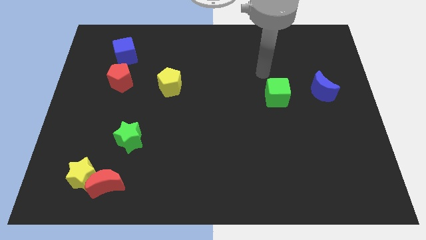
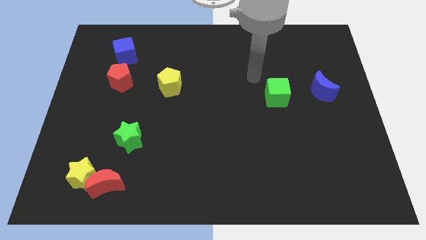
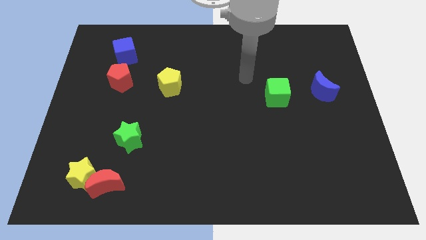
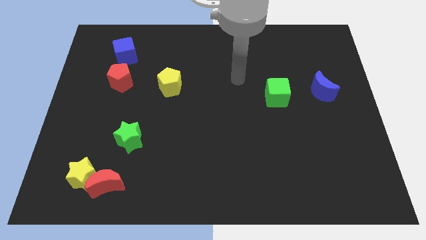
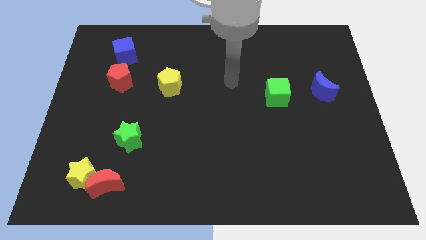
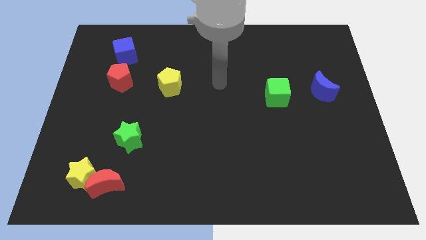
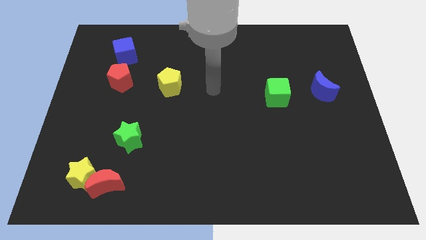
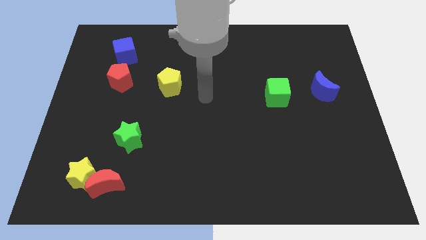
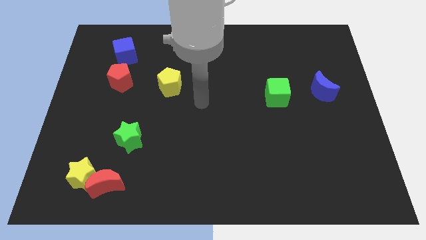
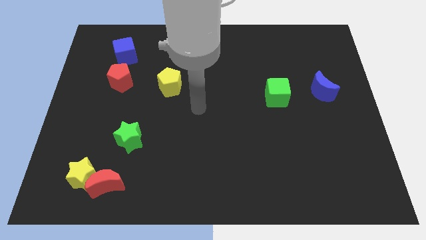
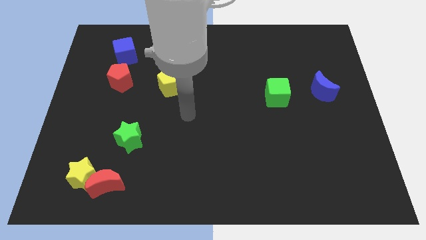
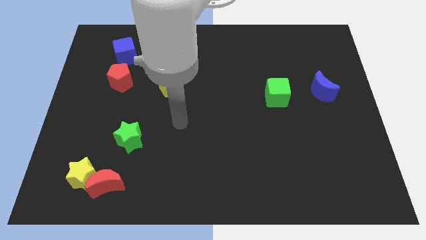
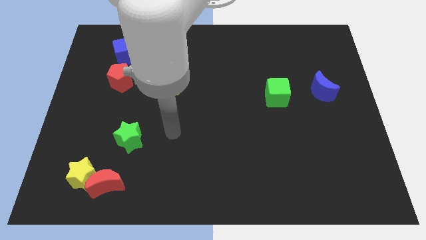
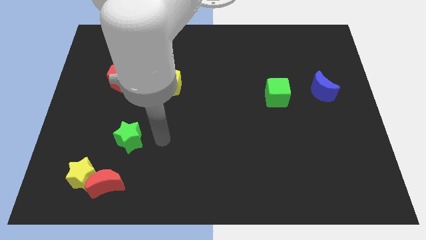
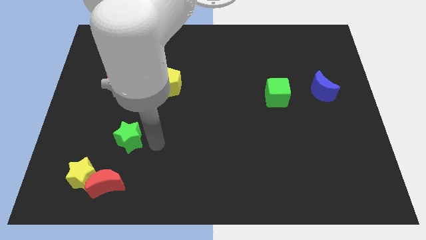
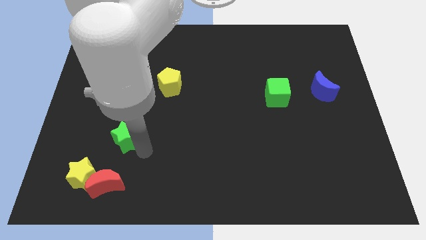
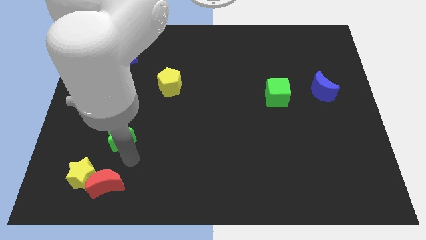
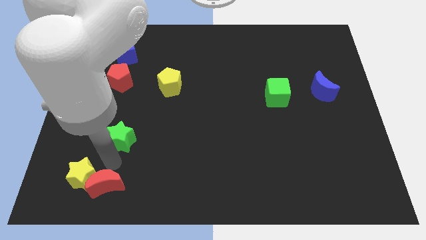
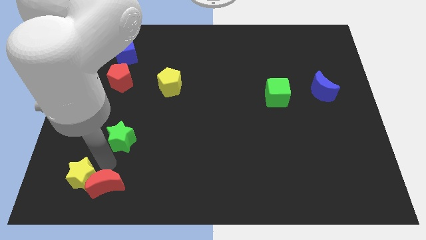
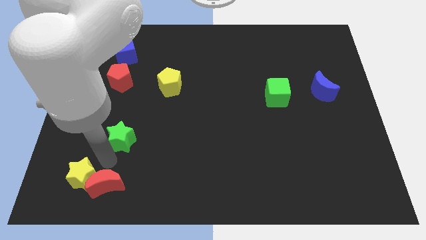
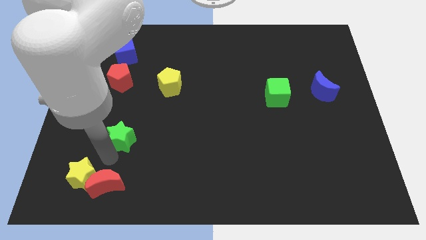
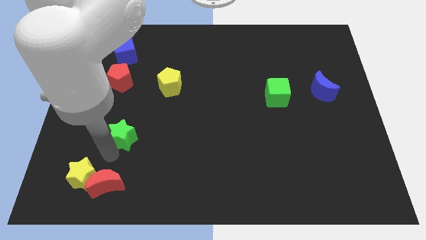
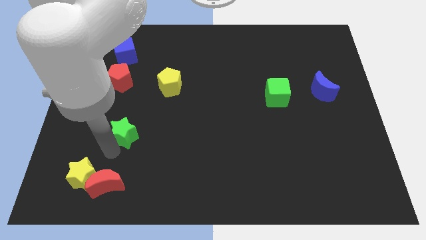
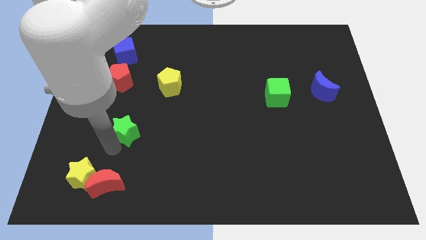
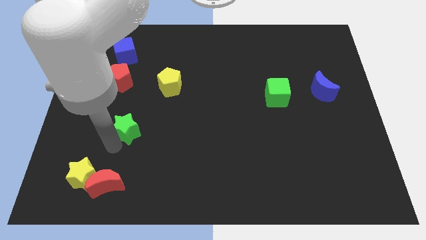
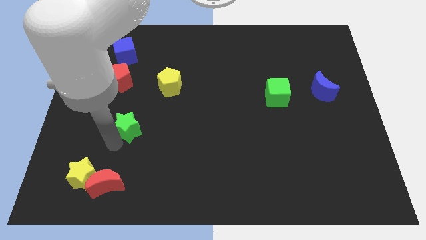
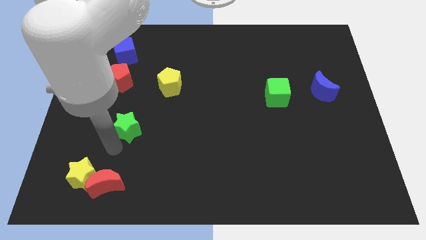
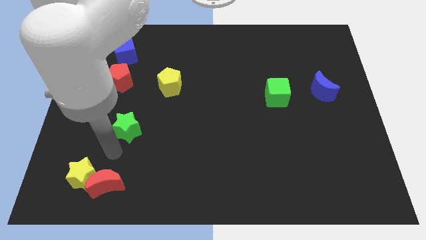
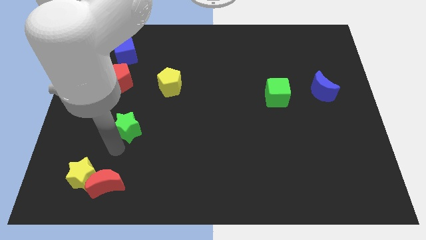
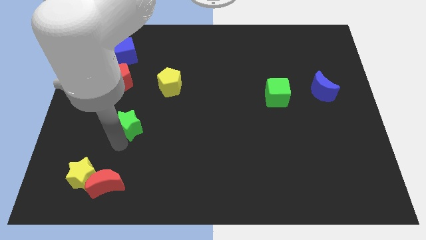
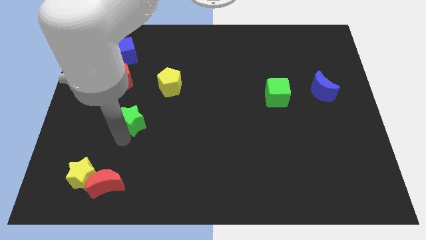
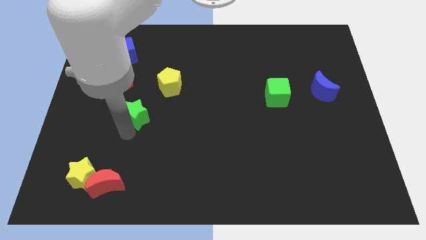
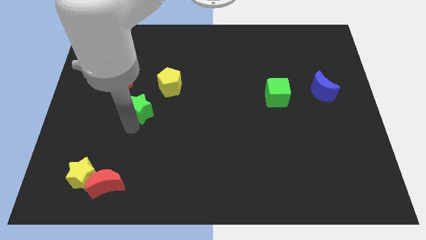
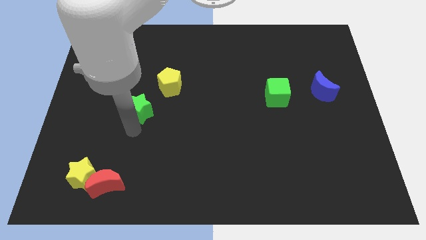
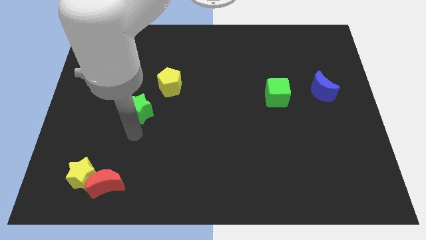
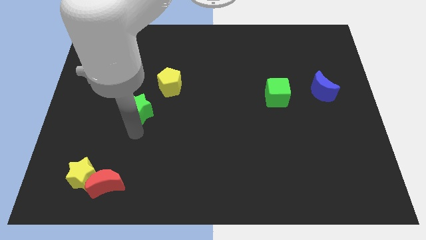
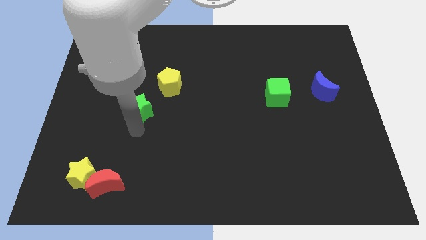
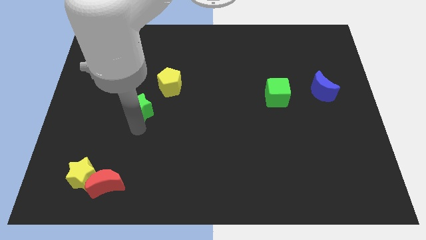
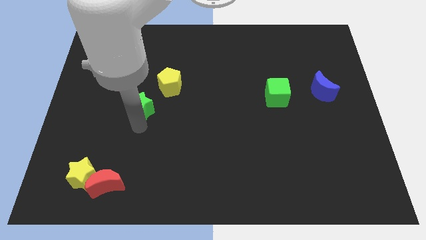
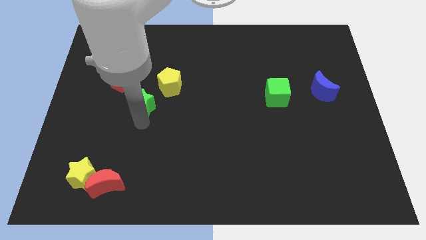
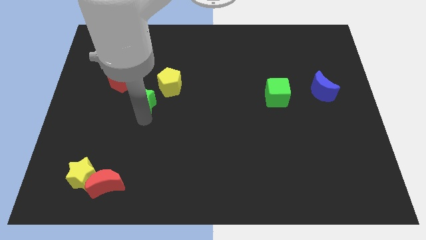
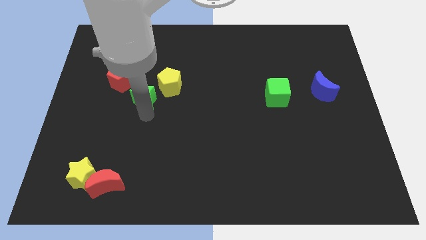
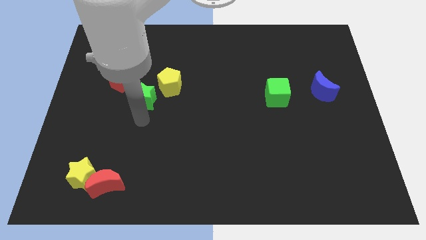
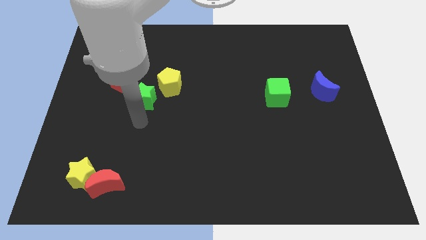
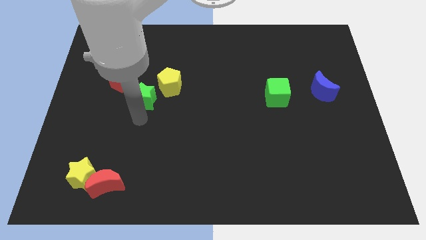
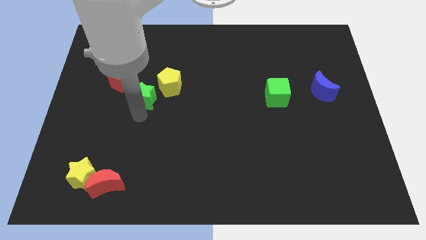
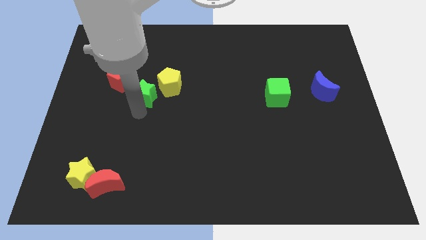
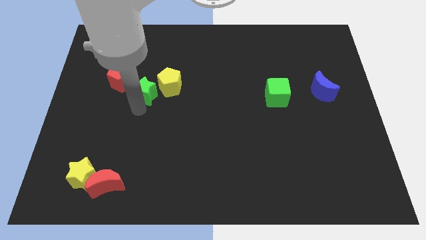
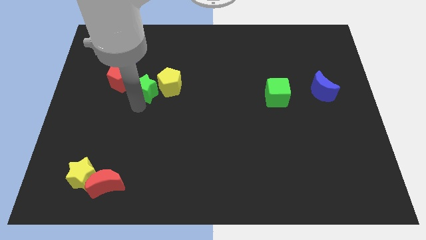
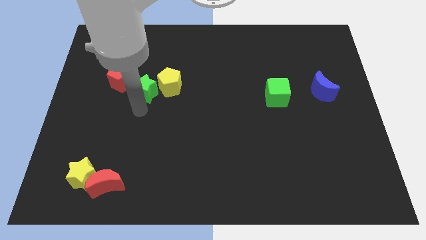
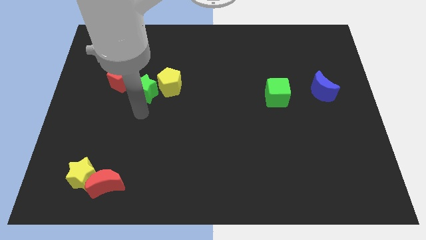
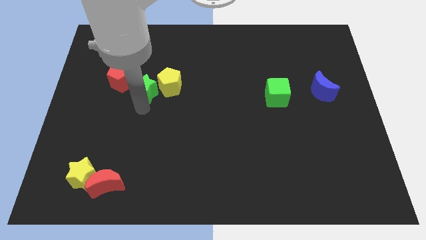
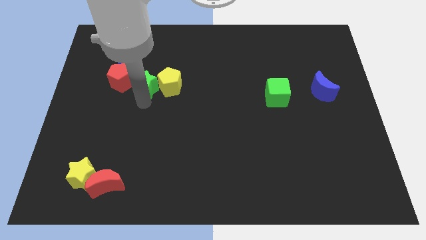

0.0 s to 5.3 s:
push the green star to the top left of the yellow pentagon

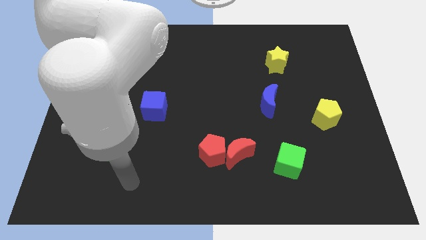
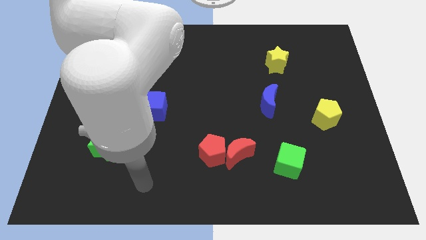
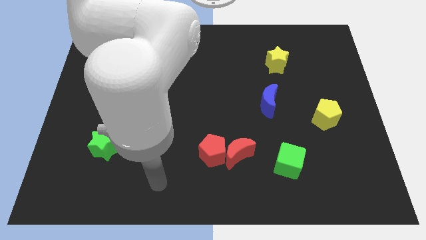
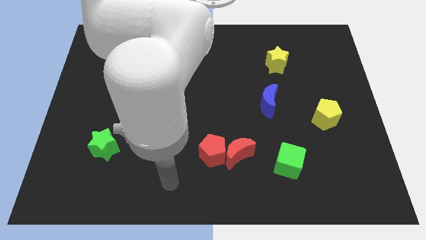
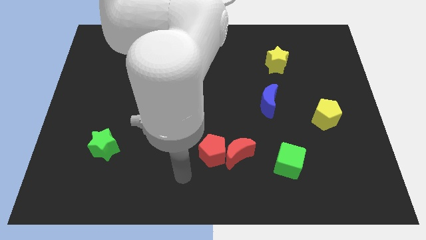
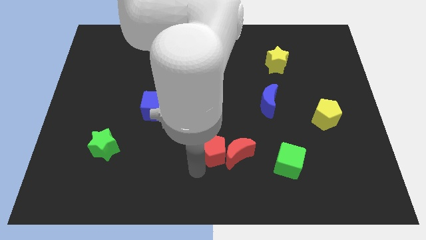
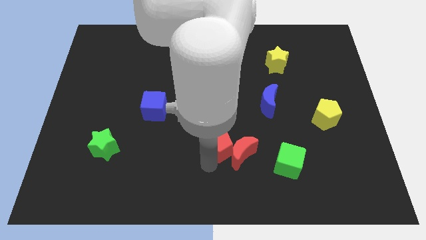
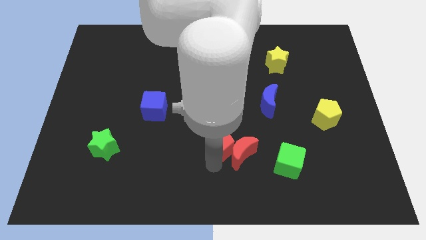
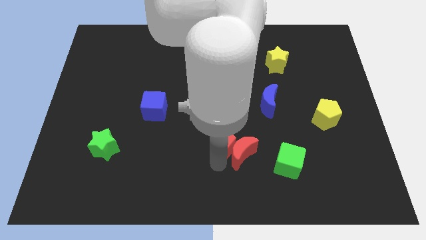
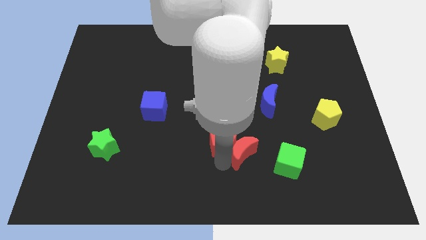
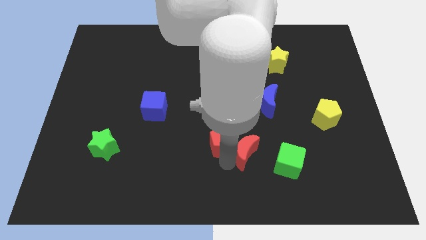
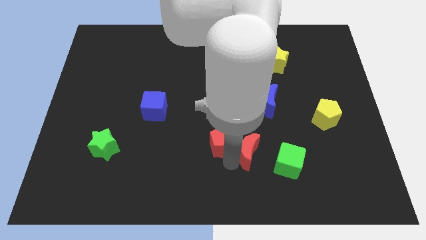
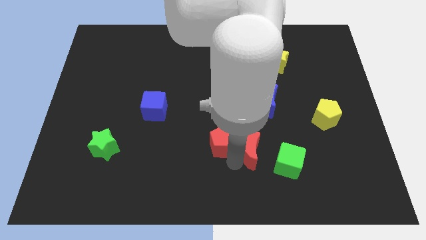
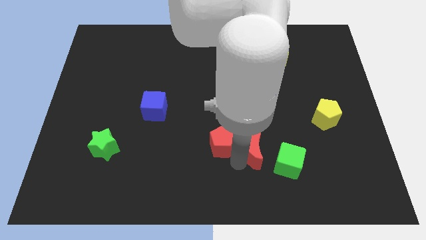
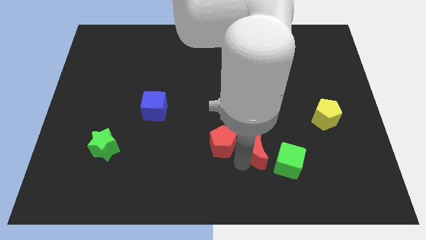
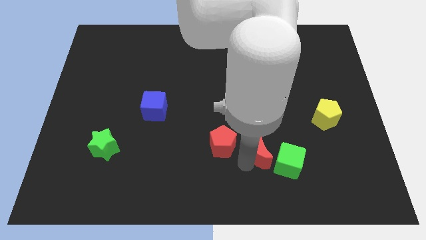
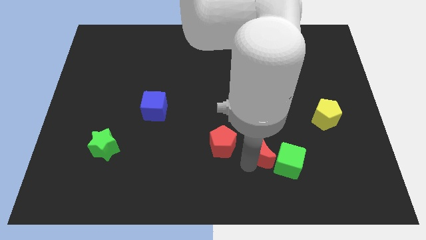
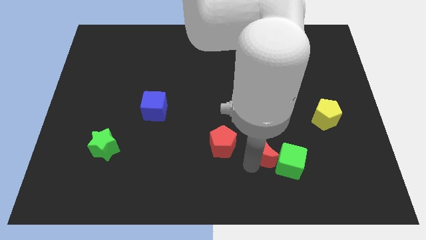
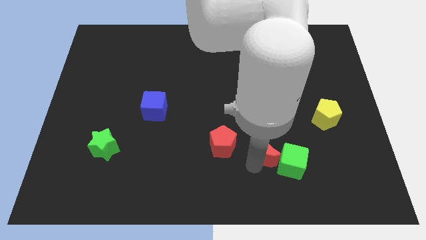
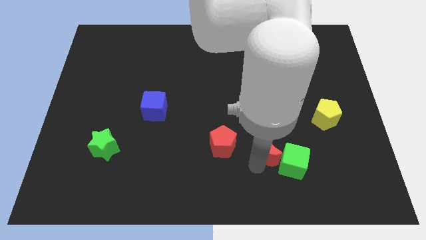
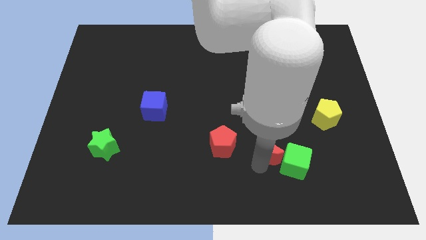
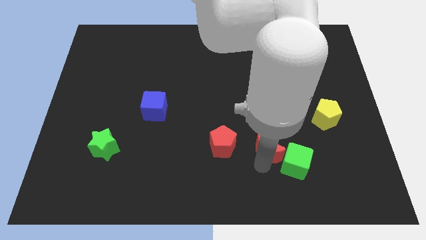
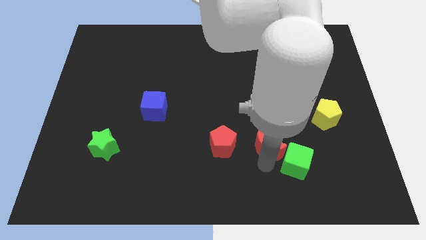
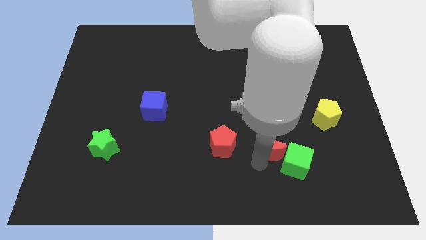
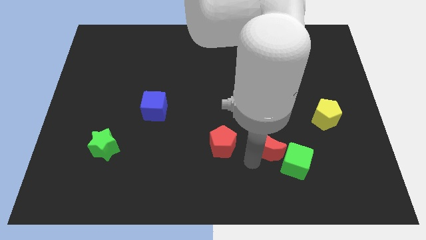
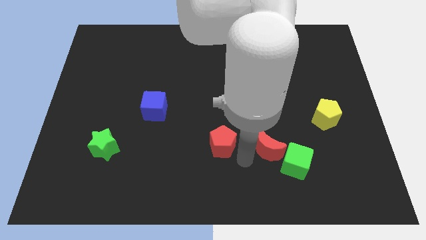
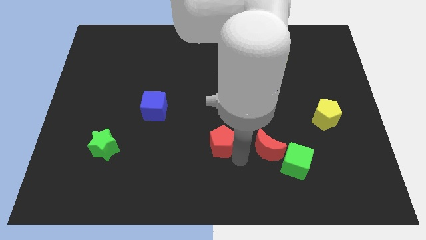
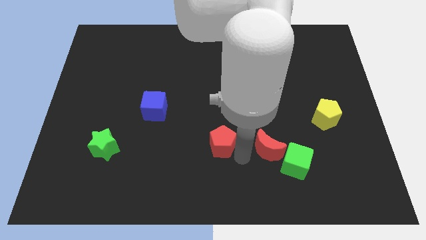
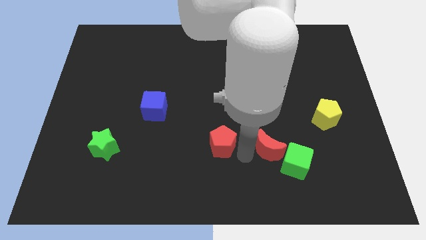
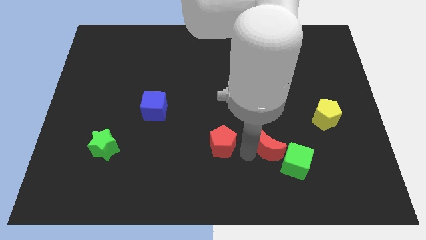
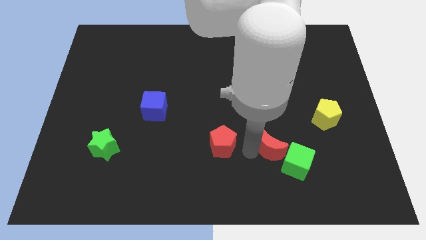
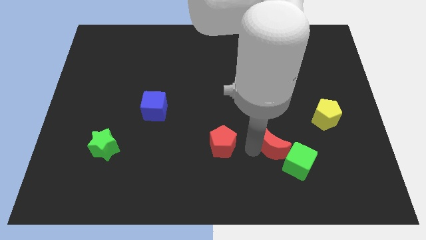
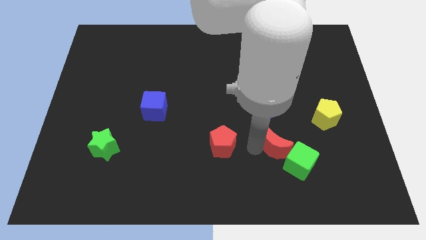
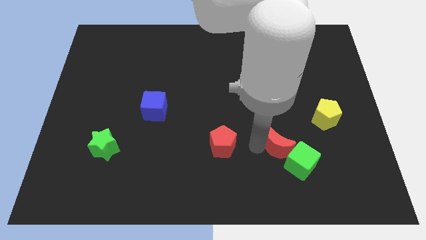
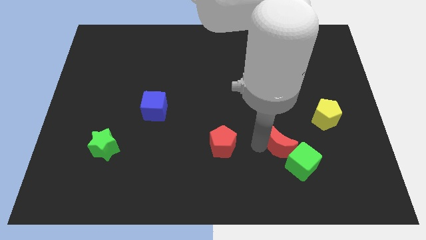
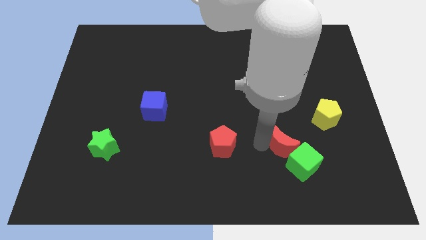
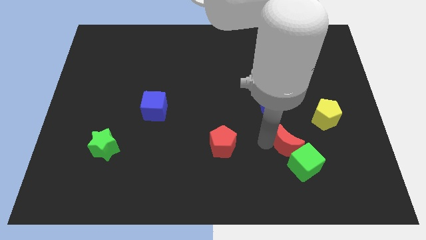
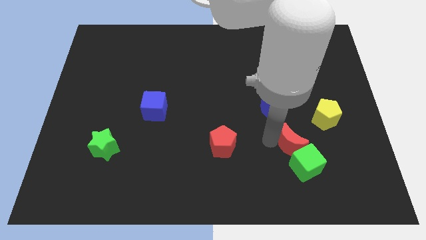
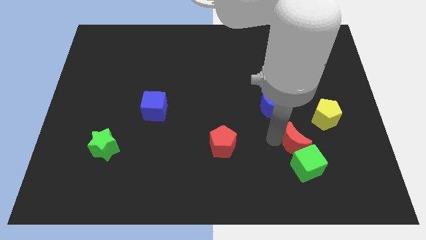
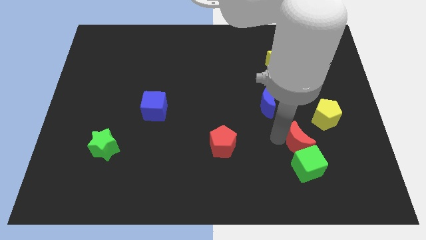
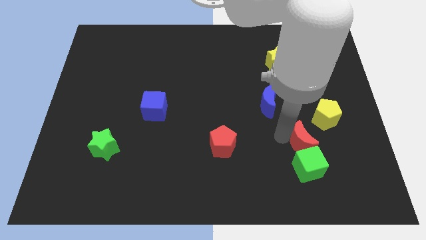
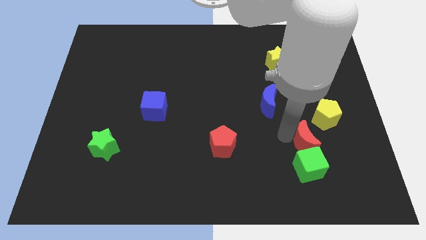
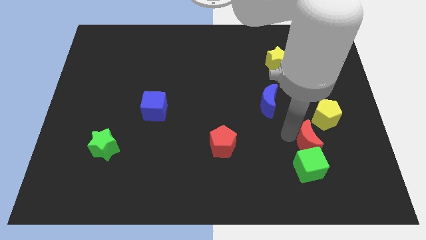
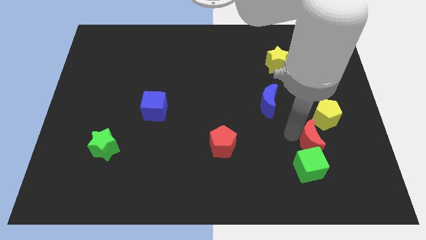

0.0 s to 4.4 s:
slide the red moon below the yellow pentagon
